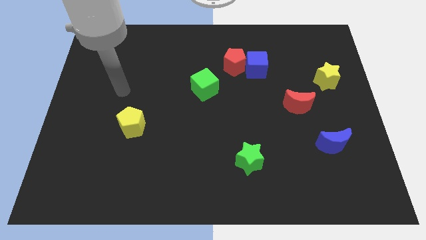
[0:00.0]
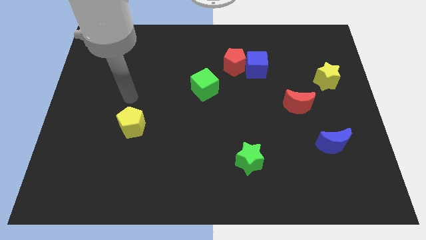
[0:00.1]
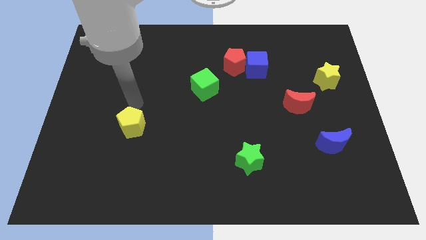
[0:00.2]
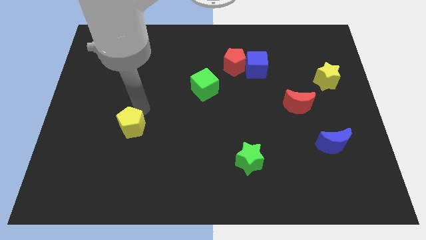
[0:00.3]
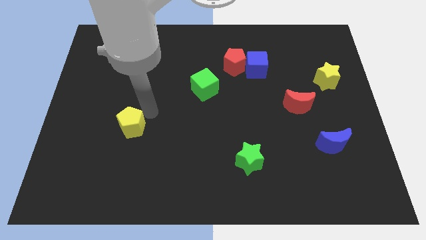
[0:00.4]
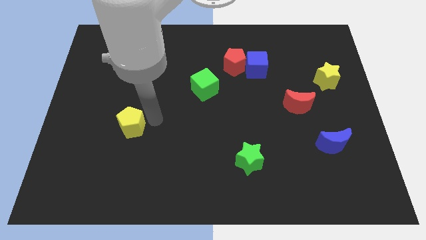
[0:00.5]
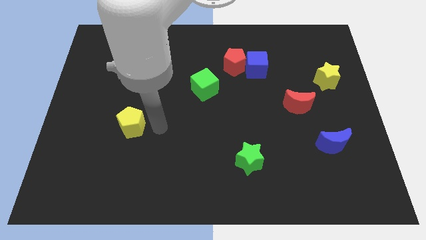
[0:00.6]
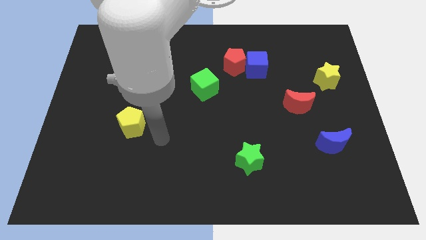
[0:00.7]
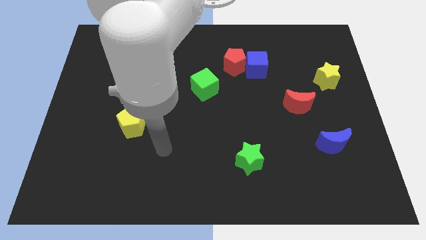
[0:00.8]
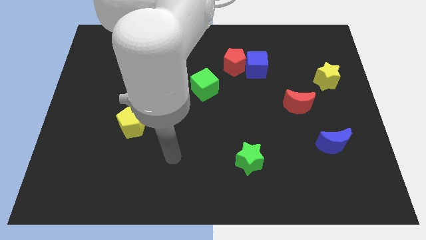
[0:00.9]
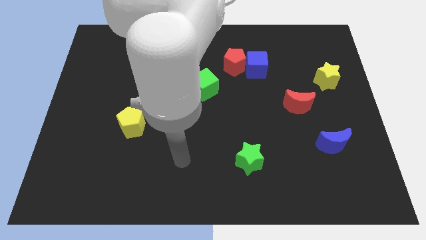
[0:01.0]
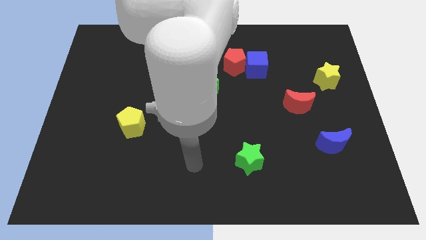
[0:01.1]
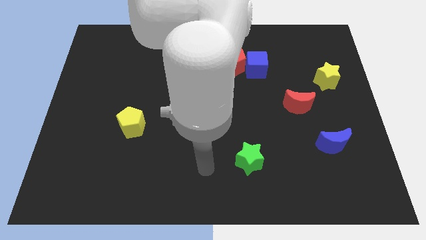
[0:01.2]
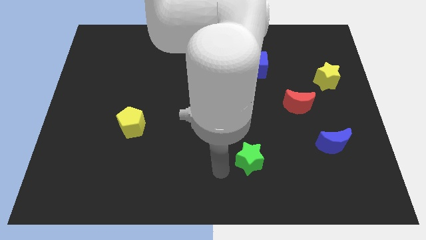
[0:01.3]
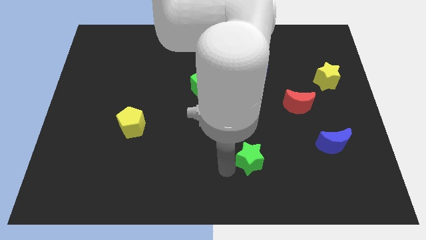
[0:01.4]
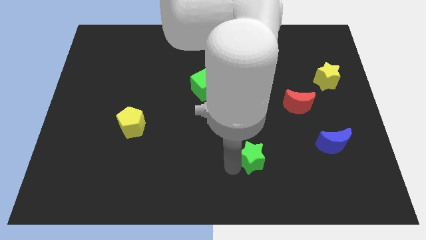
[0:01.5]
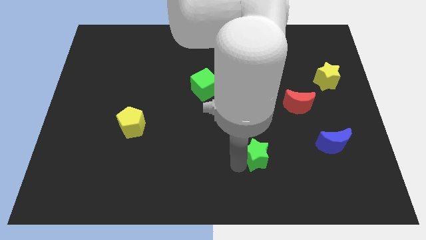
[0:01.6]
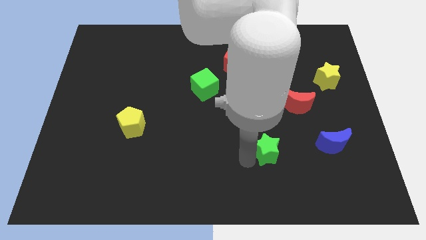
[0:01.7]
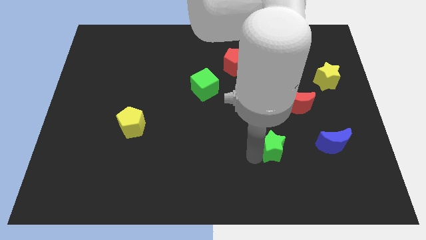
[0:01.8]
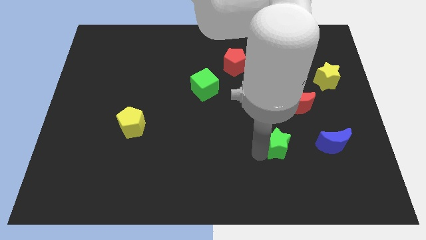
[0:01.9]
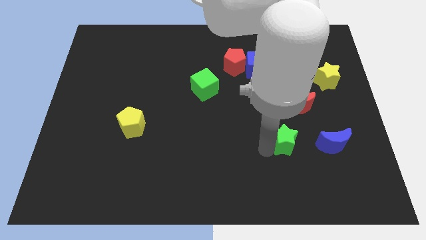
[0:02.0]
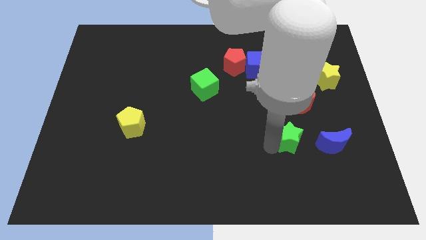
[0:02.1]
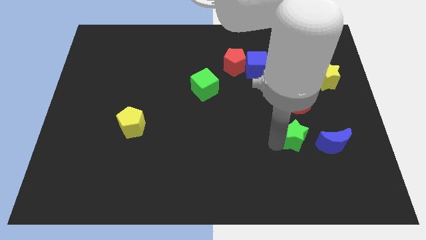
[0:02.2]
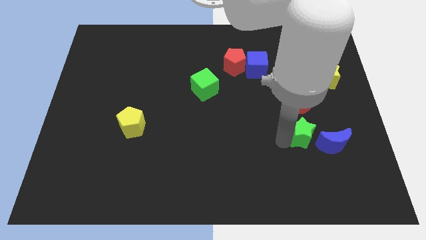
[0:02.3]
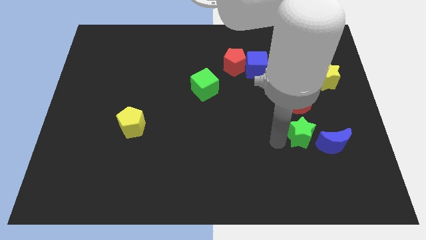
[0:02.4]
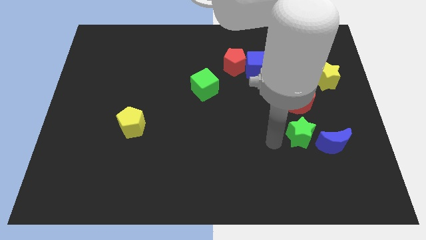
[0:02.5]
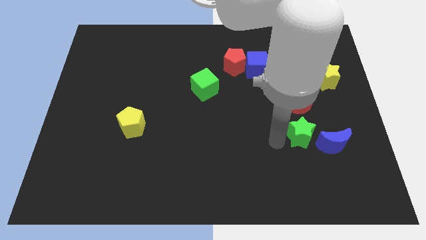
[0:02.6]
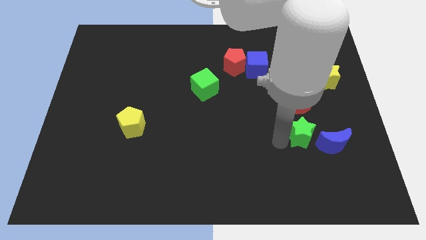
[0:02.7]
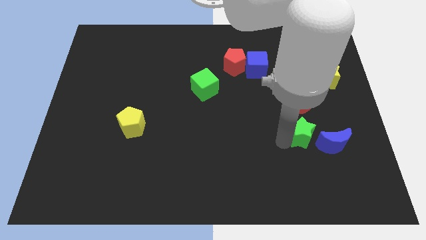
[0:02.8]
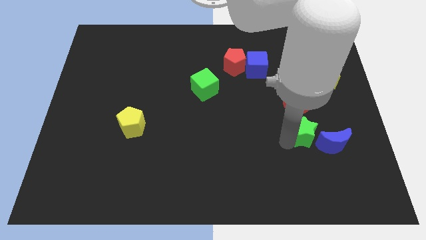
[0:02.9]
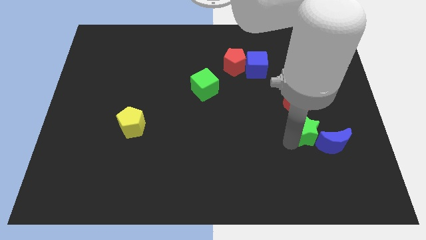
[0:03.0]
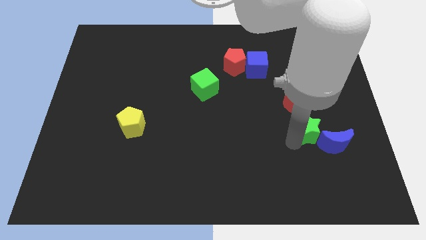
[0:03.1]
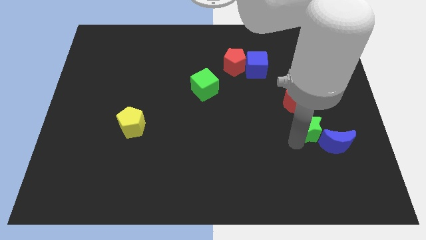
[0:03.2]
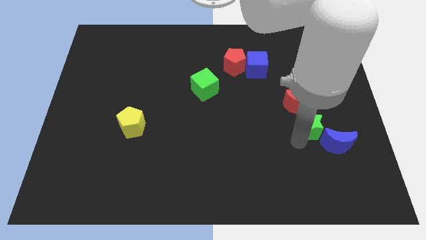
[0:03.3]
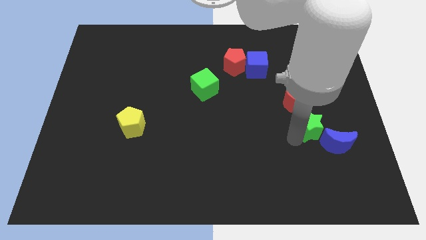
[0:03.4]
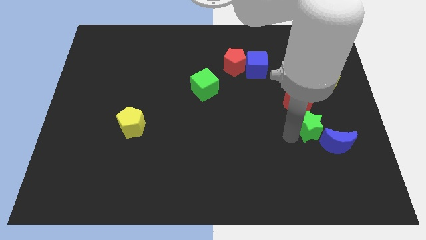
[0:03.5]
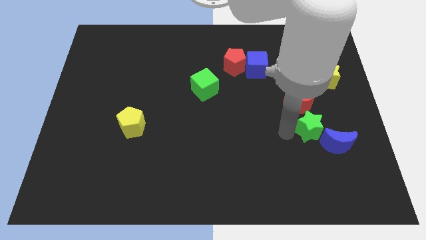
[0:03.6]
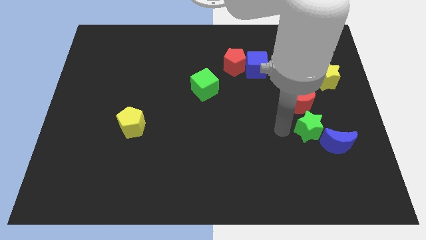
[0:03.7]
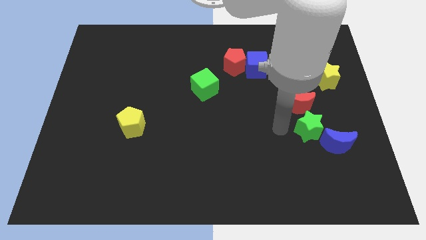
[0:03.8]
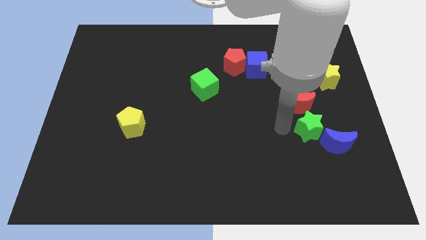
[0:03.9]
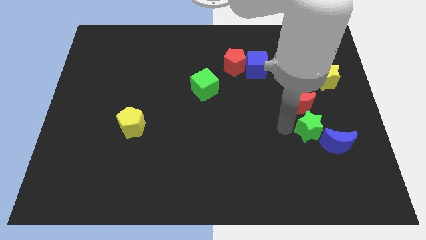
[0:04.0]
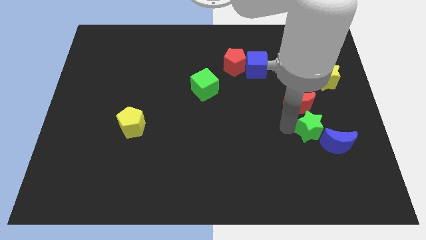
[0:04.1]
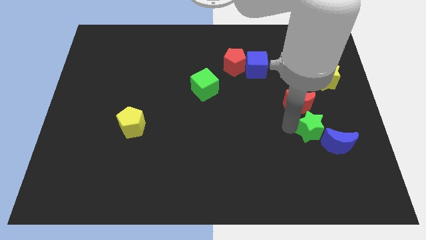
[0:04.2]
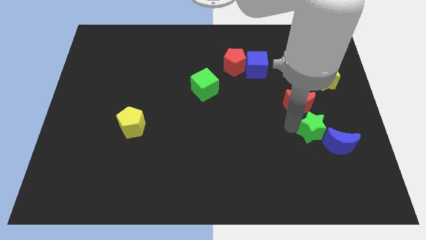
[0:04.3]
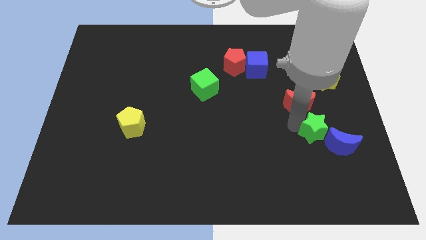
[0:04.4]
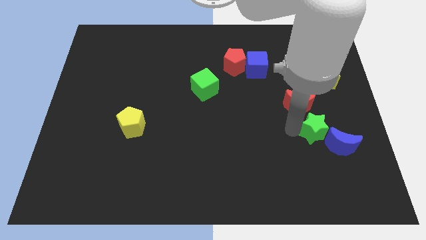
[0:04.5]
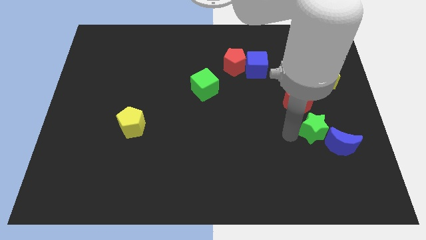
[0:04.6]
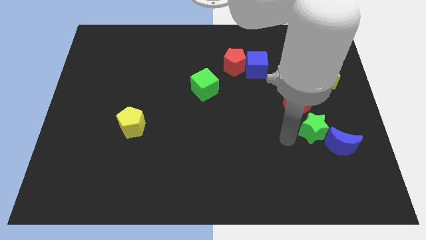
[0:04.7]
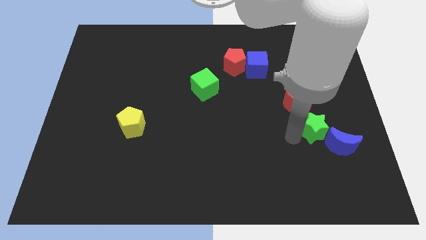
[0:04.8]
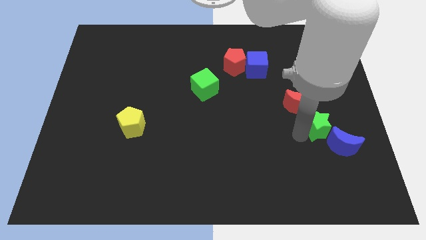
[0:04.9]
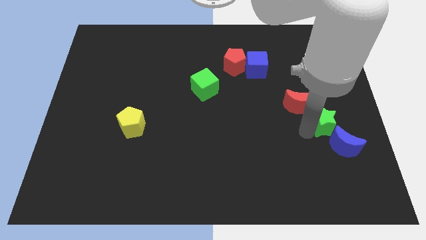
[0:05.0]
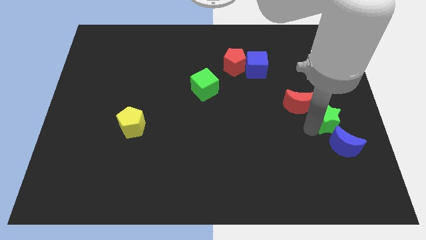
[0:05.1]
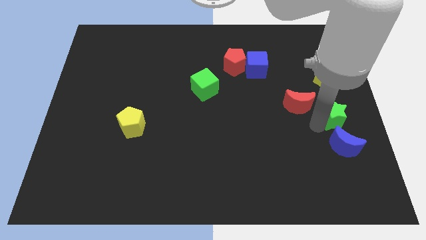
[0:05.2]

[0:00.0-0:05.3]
move the green star to the center right

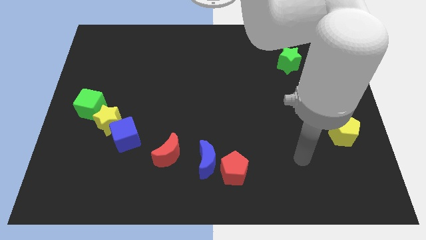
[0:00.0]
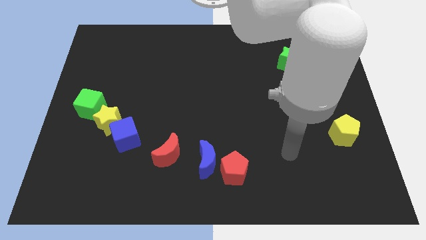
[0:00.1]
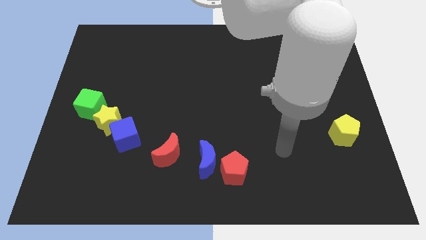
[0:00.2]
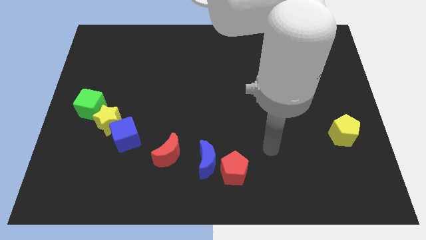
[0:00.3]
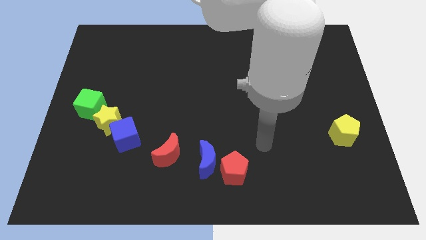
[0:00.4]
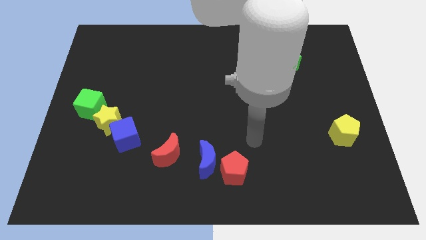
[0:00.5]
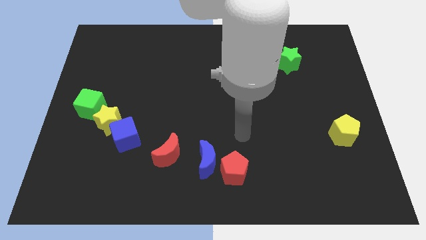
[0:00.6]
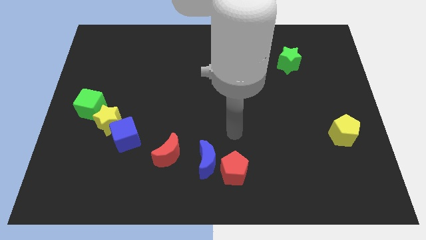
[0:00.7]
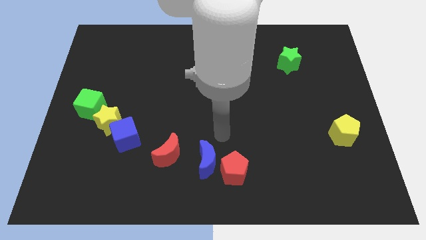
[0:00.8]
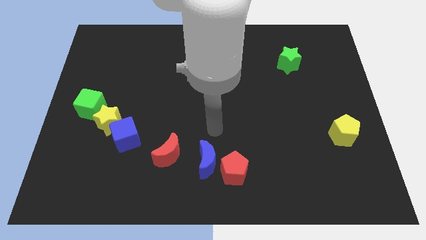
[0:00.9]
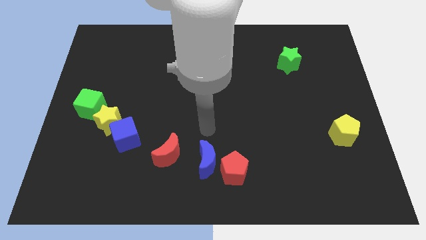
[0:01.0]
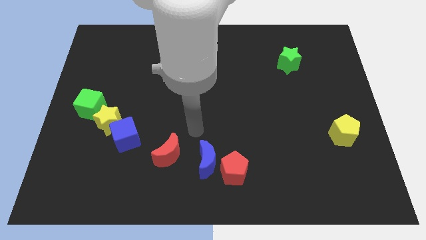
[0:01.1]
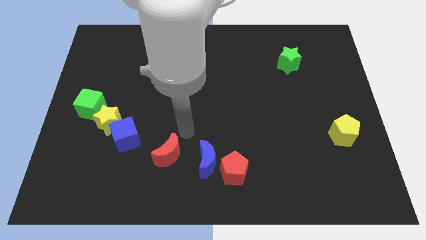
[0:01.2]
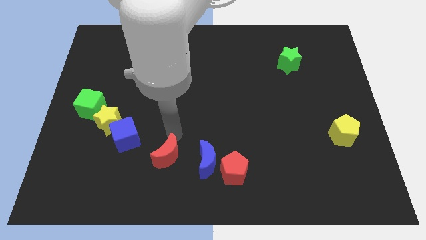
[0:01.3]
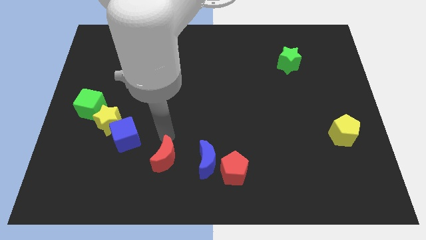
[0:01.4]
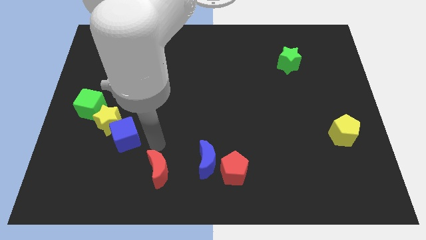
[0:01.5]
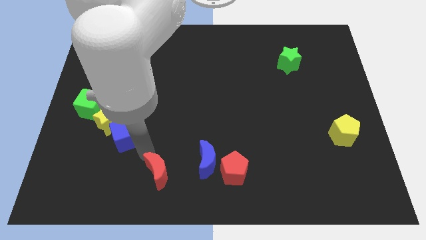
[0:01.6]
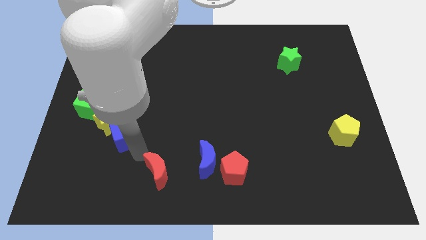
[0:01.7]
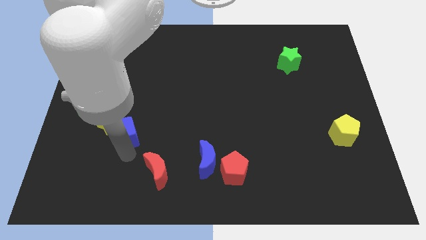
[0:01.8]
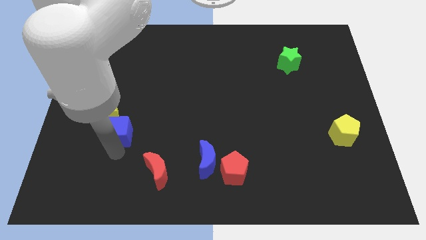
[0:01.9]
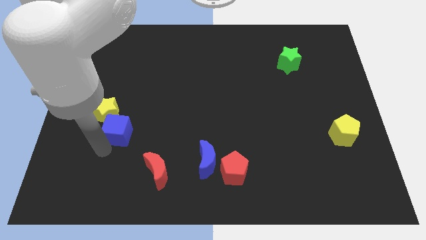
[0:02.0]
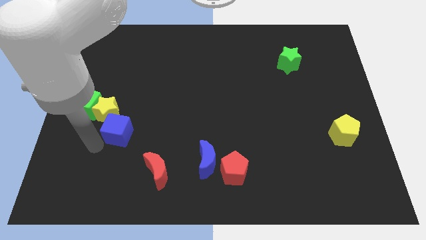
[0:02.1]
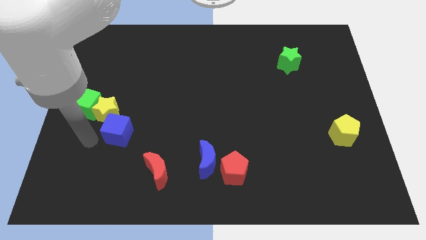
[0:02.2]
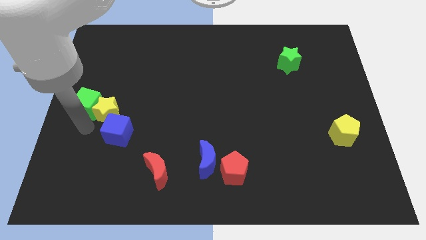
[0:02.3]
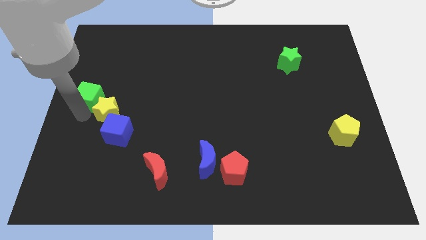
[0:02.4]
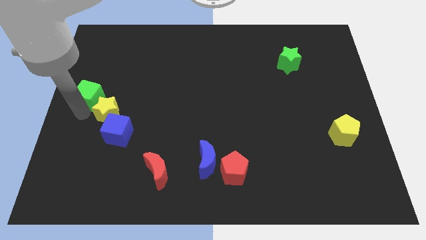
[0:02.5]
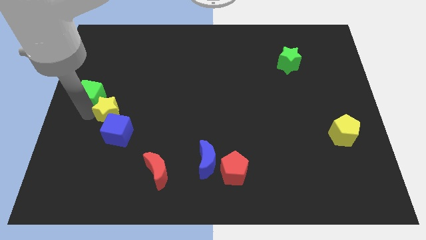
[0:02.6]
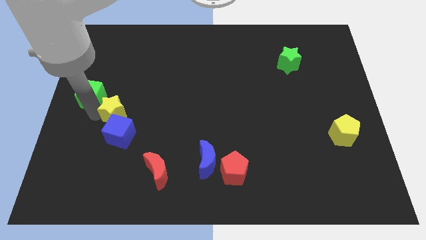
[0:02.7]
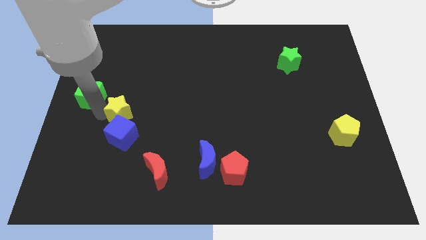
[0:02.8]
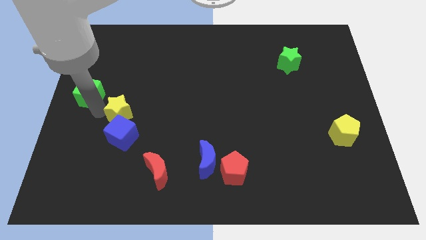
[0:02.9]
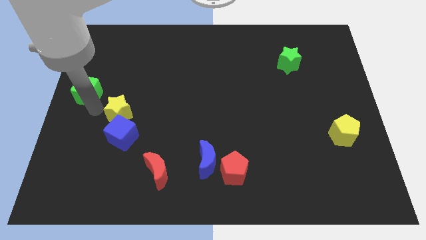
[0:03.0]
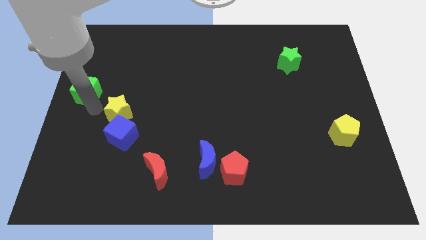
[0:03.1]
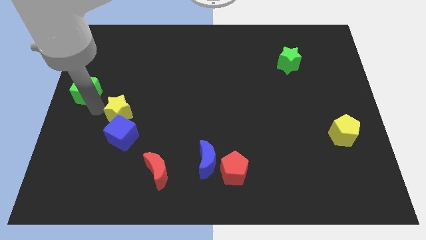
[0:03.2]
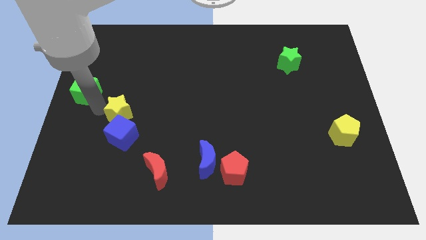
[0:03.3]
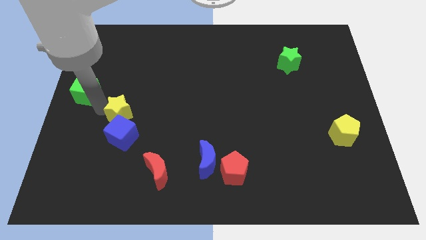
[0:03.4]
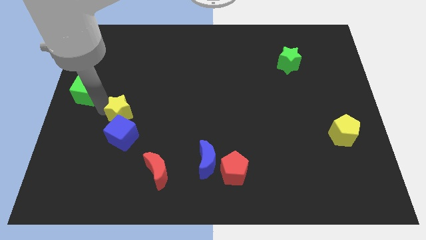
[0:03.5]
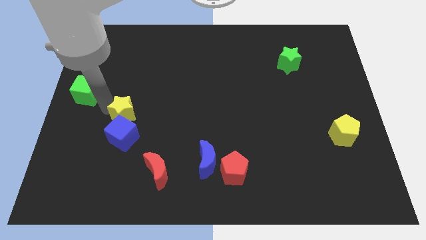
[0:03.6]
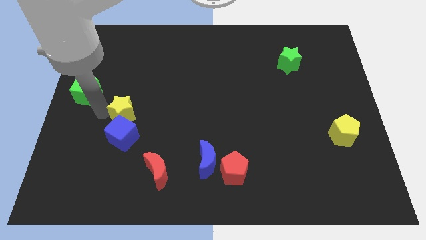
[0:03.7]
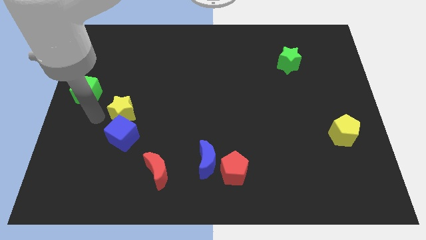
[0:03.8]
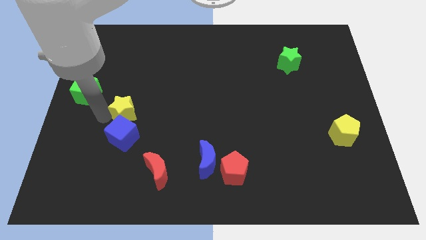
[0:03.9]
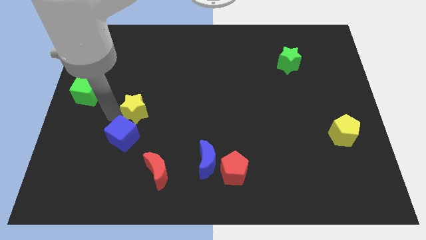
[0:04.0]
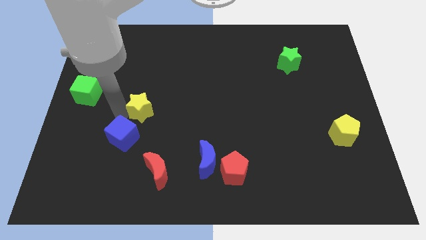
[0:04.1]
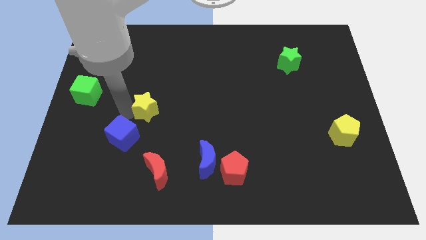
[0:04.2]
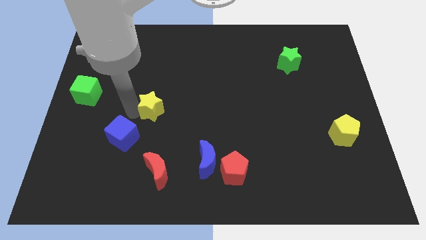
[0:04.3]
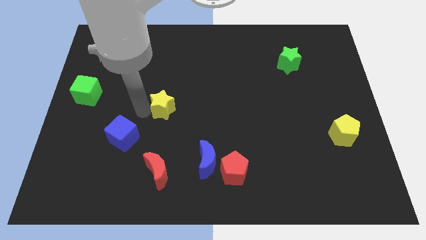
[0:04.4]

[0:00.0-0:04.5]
move the yellow star to the center
